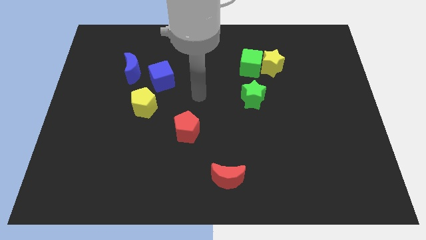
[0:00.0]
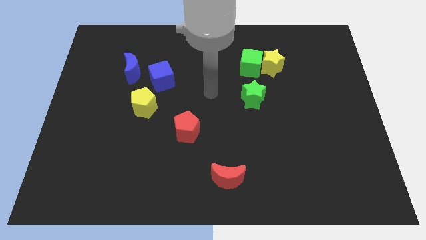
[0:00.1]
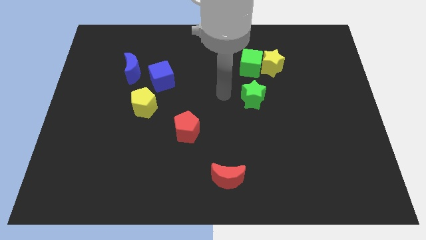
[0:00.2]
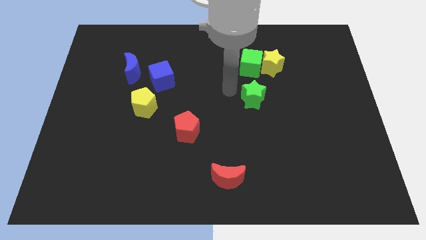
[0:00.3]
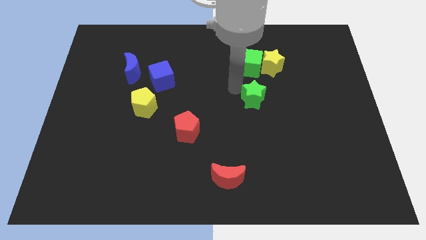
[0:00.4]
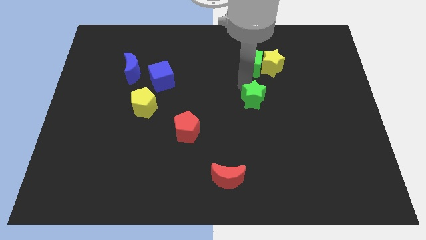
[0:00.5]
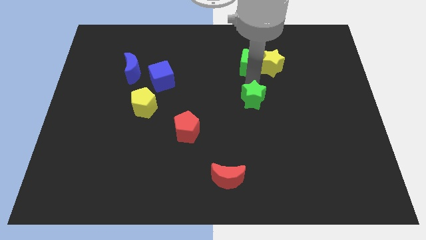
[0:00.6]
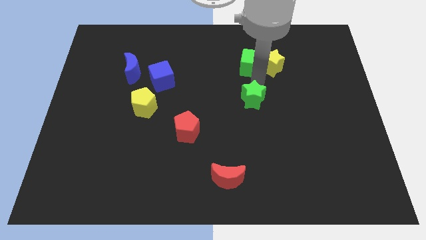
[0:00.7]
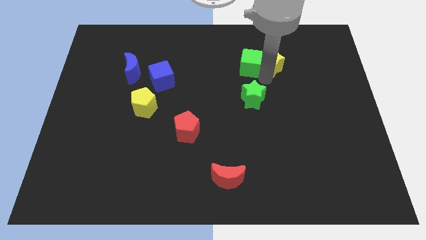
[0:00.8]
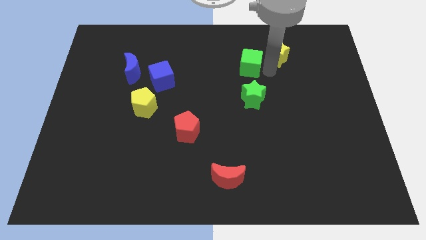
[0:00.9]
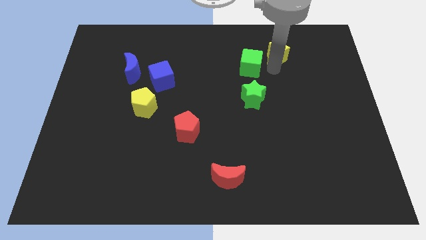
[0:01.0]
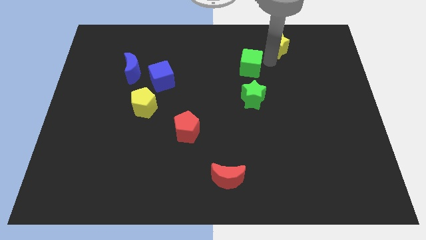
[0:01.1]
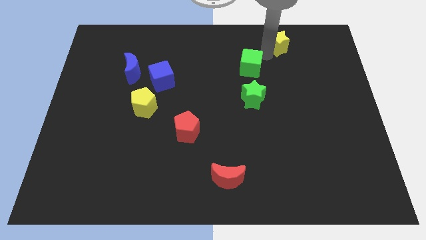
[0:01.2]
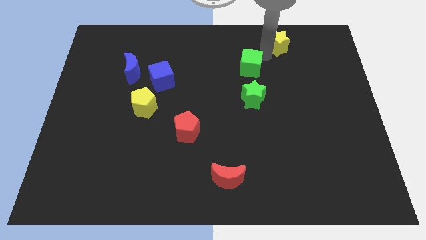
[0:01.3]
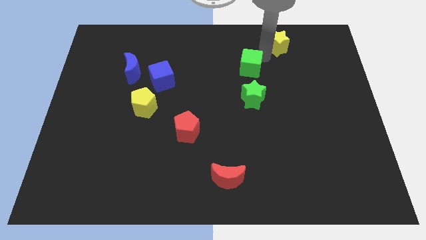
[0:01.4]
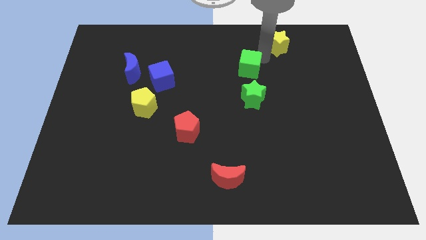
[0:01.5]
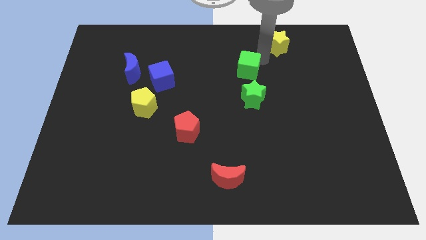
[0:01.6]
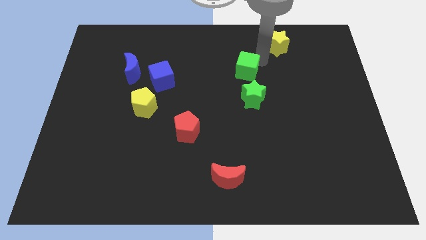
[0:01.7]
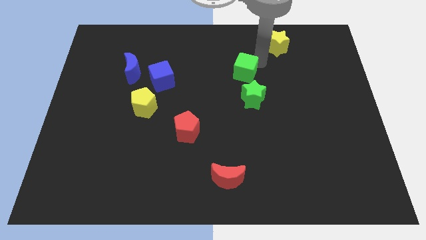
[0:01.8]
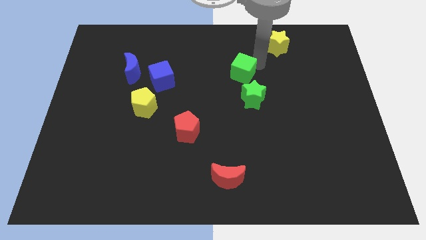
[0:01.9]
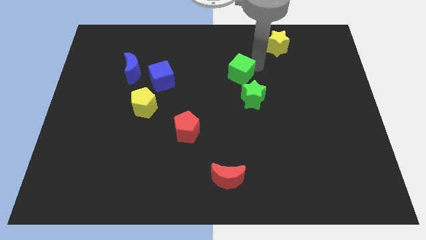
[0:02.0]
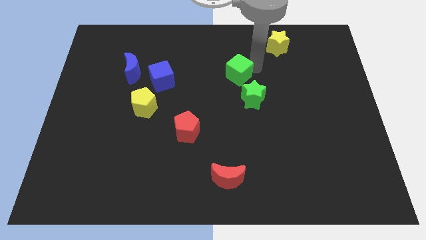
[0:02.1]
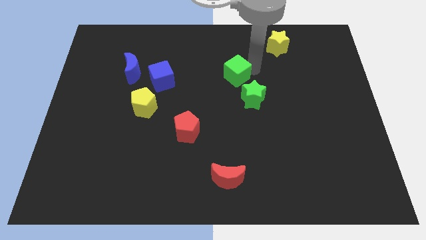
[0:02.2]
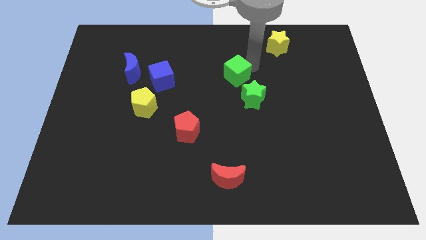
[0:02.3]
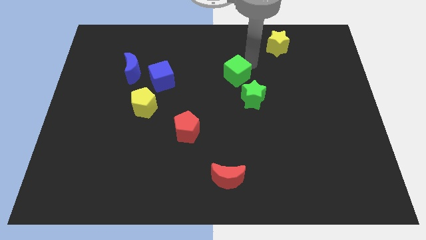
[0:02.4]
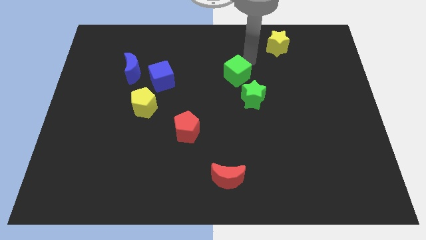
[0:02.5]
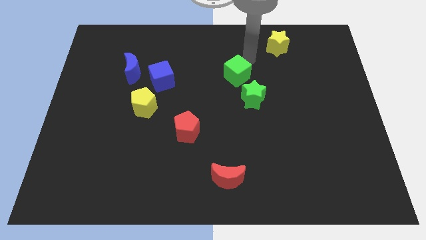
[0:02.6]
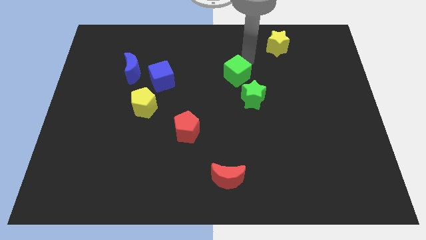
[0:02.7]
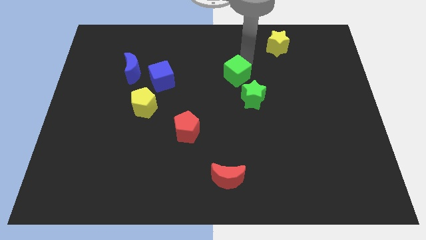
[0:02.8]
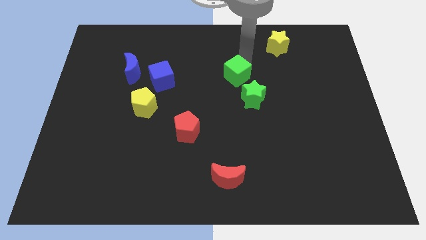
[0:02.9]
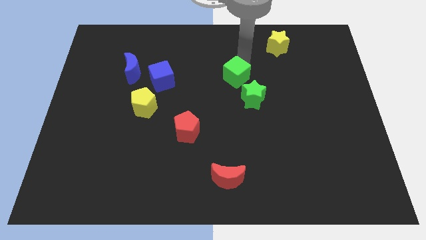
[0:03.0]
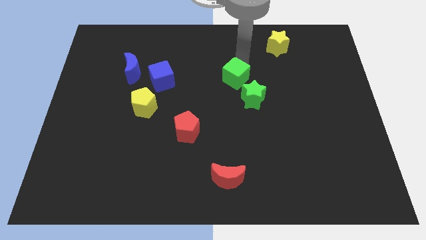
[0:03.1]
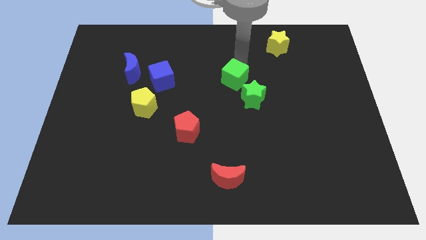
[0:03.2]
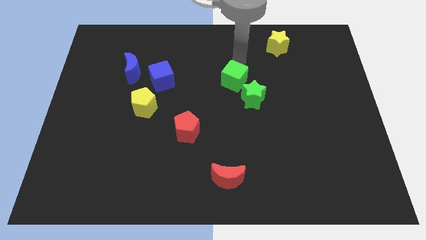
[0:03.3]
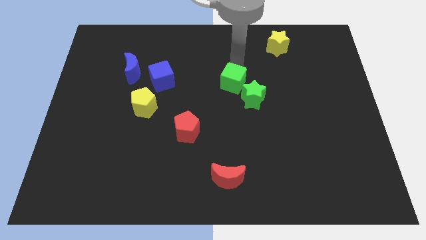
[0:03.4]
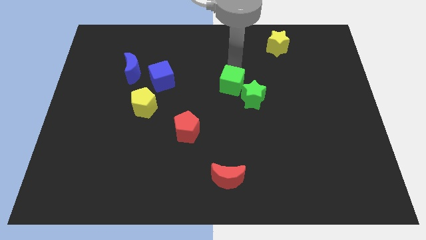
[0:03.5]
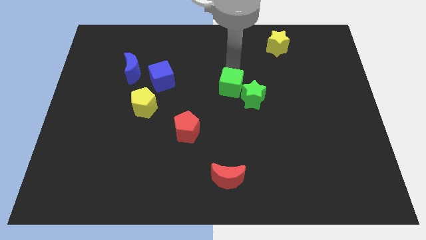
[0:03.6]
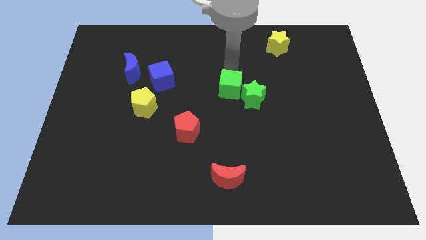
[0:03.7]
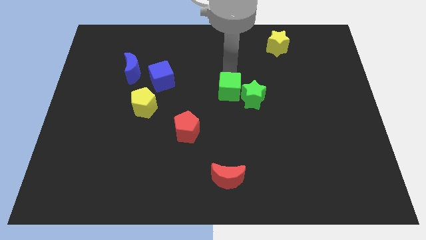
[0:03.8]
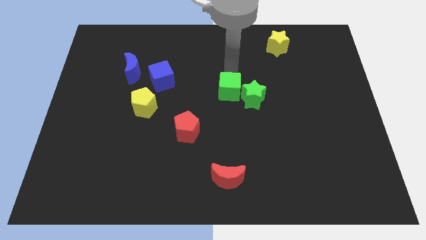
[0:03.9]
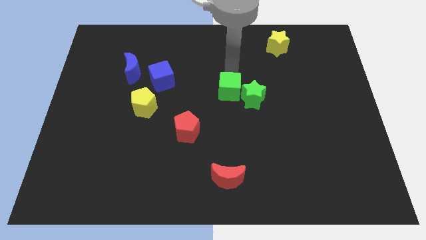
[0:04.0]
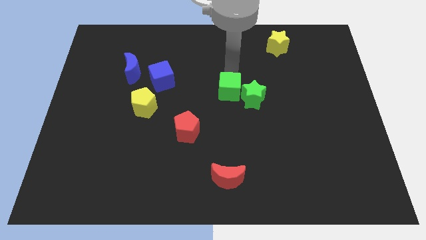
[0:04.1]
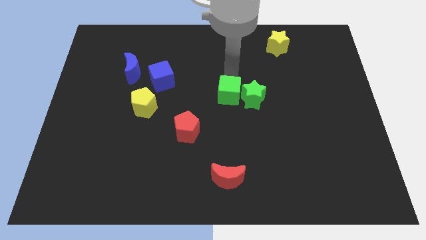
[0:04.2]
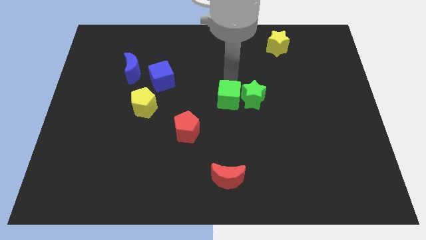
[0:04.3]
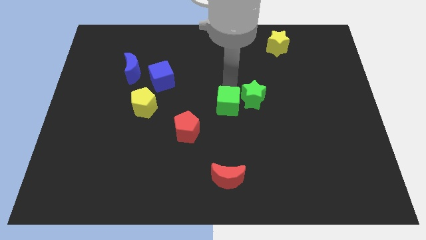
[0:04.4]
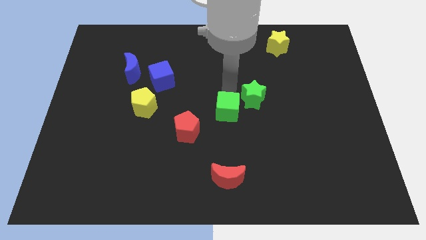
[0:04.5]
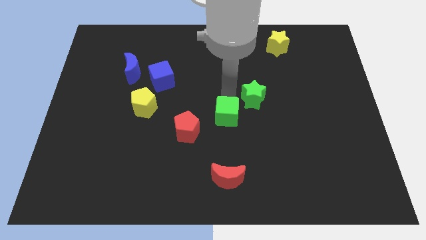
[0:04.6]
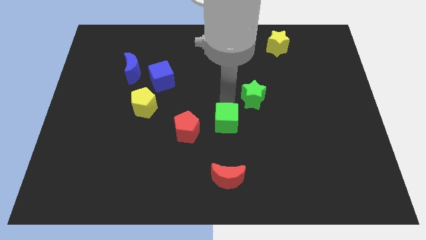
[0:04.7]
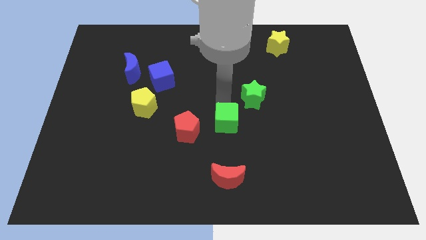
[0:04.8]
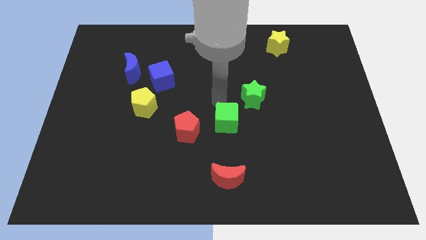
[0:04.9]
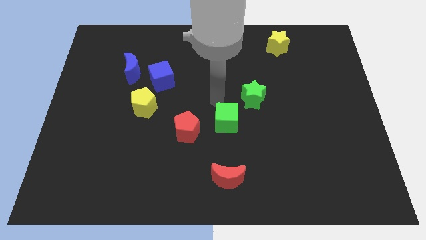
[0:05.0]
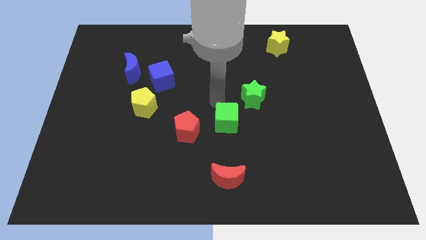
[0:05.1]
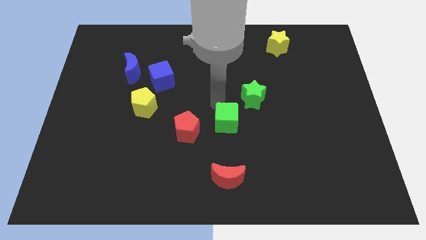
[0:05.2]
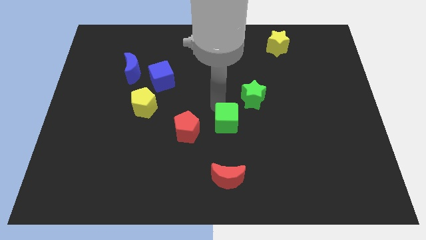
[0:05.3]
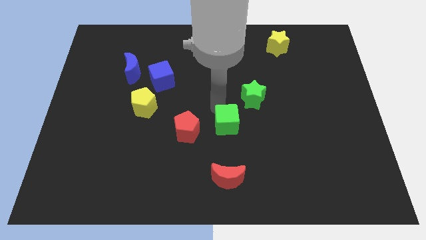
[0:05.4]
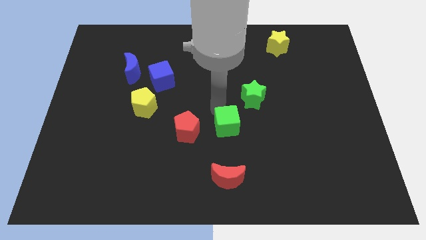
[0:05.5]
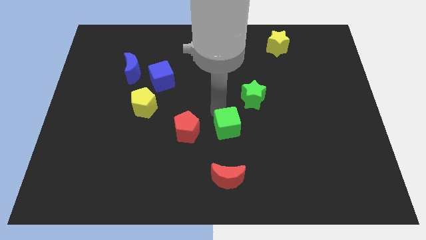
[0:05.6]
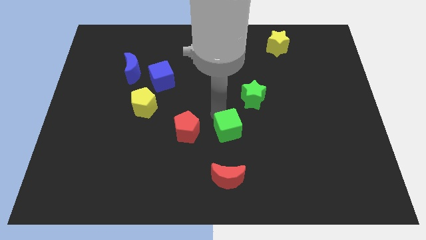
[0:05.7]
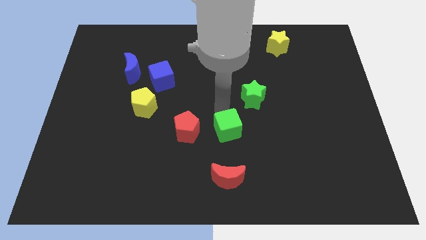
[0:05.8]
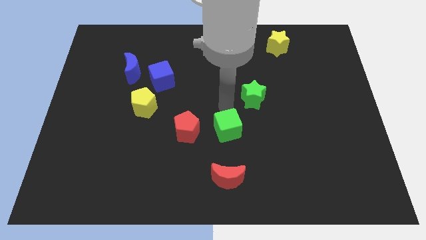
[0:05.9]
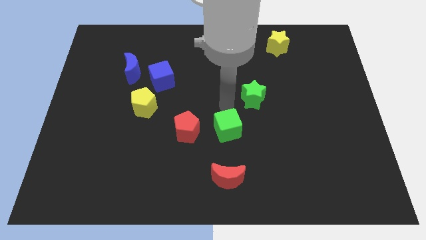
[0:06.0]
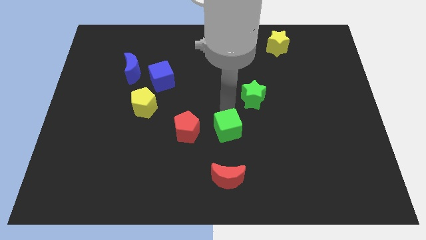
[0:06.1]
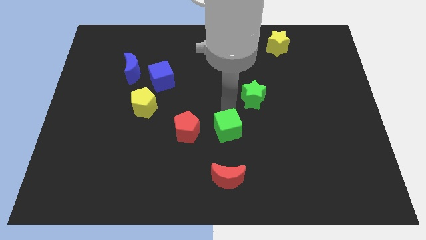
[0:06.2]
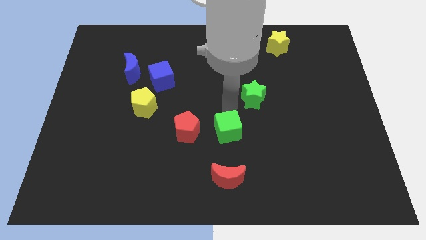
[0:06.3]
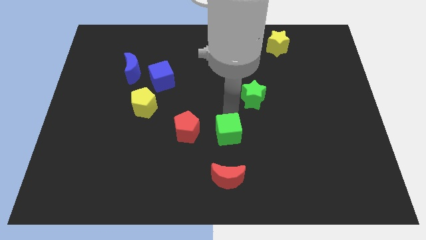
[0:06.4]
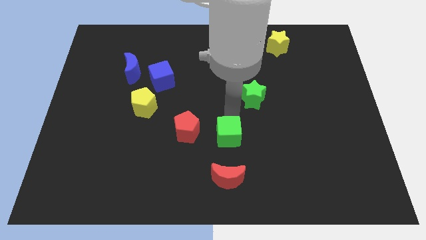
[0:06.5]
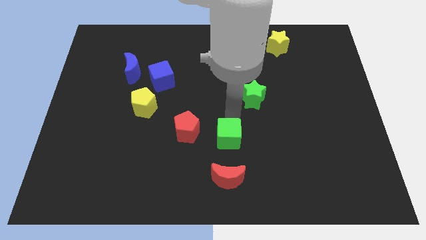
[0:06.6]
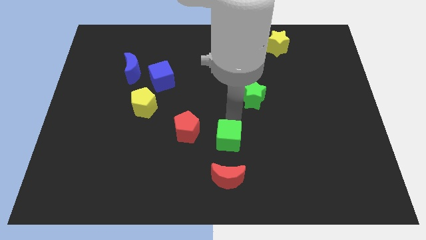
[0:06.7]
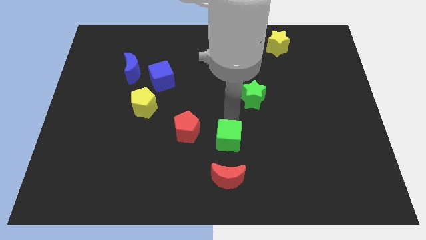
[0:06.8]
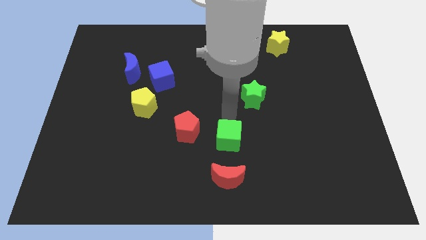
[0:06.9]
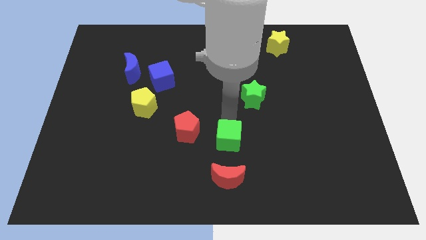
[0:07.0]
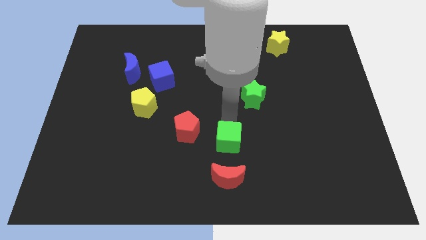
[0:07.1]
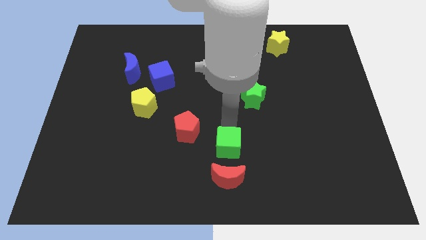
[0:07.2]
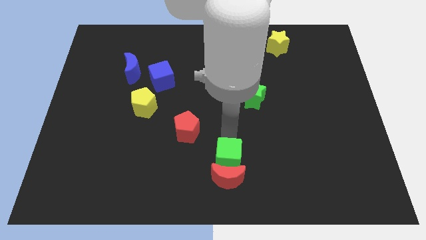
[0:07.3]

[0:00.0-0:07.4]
push the green cube next to the red moon
